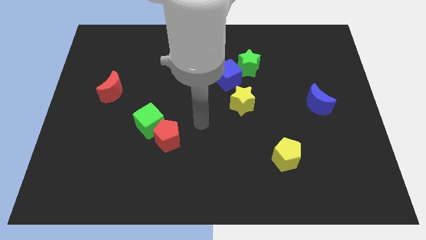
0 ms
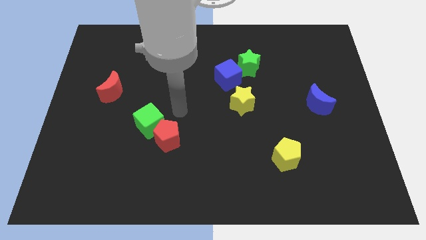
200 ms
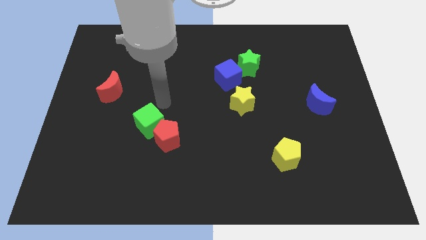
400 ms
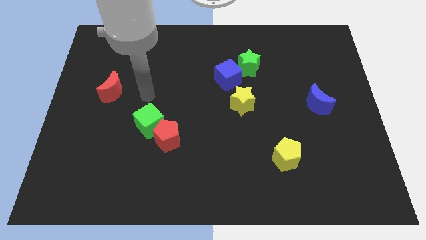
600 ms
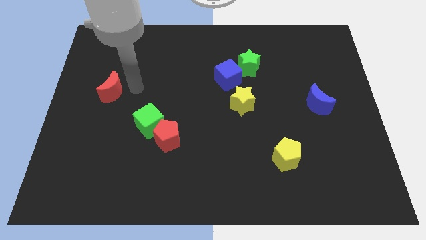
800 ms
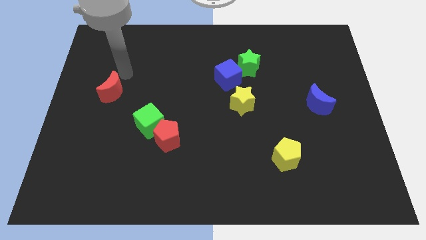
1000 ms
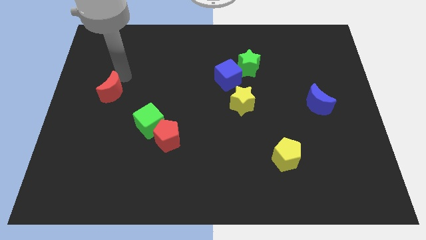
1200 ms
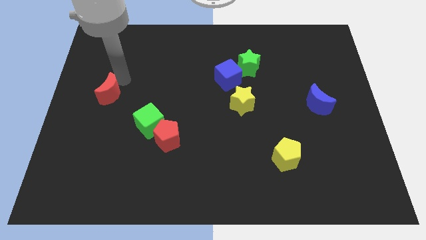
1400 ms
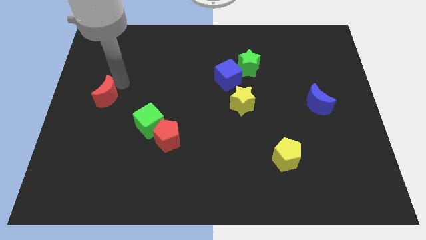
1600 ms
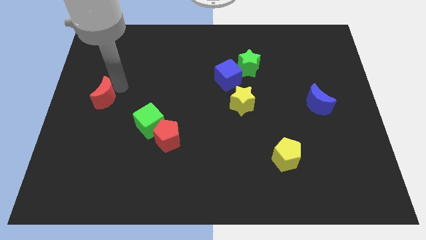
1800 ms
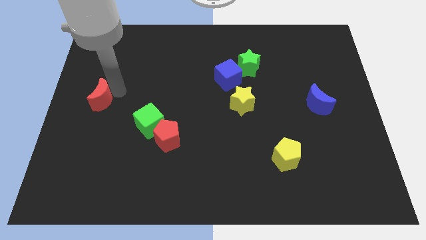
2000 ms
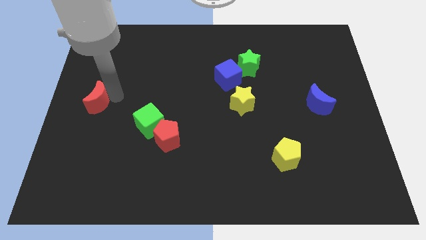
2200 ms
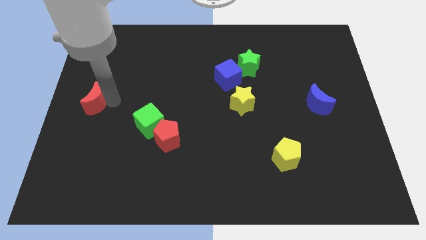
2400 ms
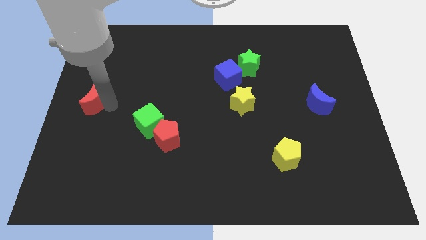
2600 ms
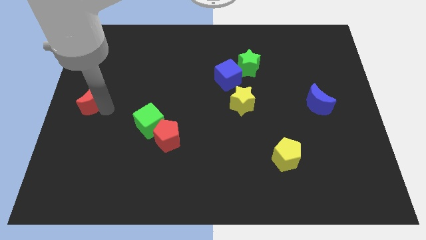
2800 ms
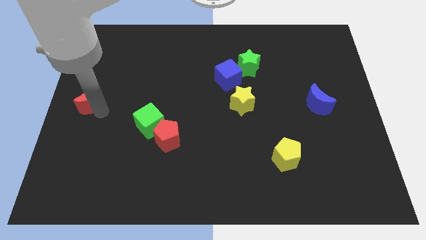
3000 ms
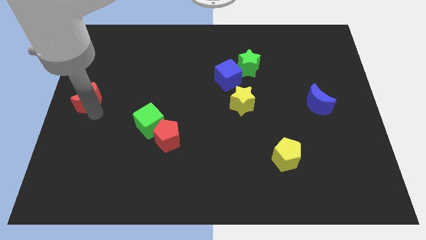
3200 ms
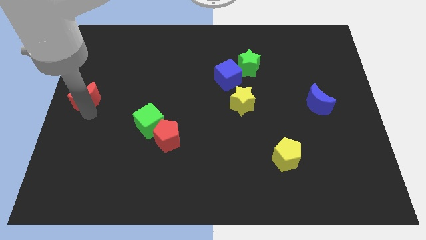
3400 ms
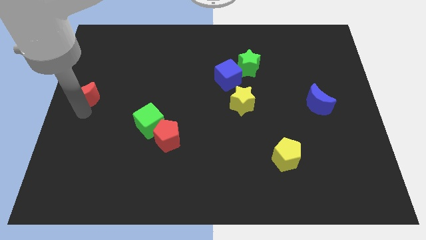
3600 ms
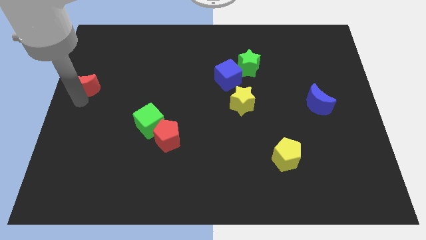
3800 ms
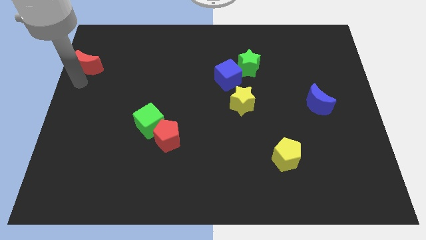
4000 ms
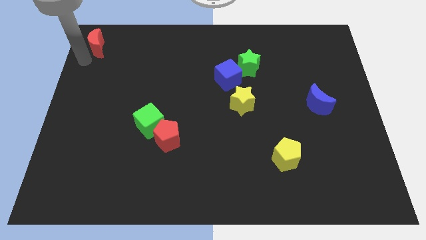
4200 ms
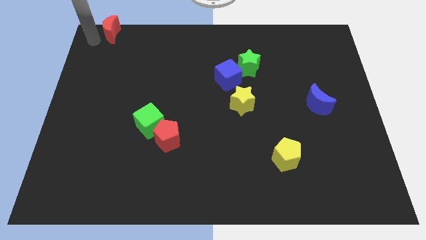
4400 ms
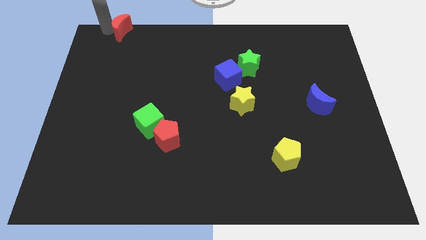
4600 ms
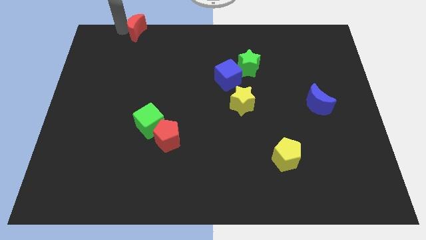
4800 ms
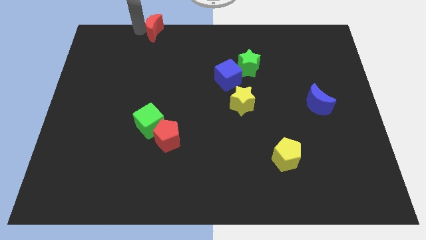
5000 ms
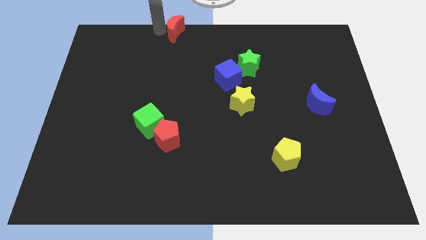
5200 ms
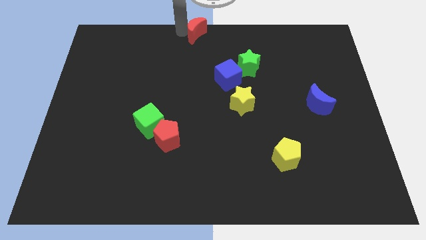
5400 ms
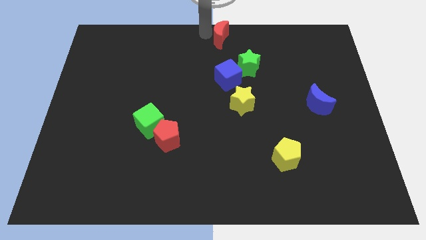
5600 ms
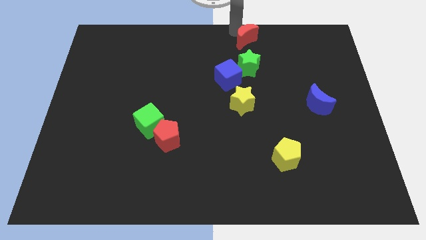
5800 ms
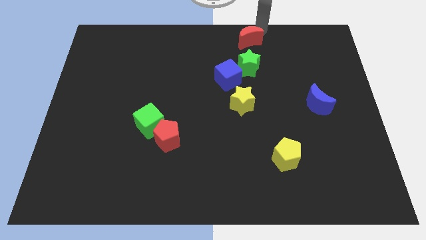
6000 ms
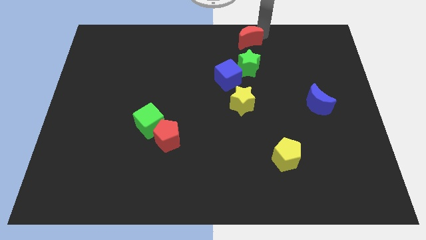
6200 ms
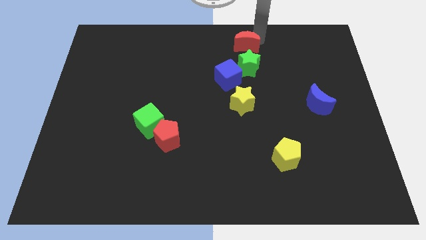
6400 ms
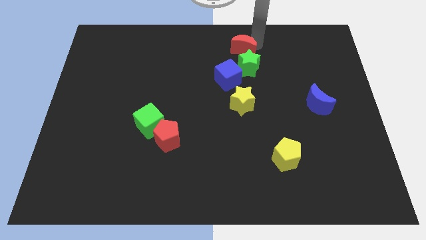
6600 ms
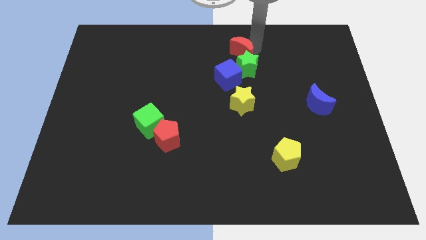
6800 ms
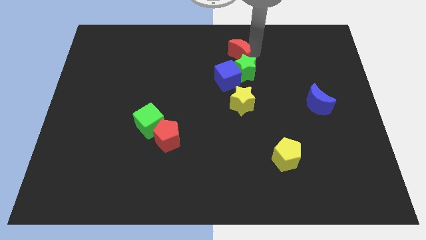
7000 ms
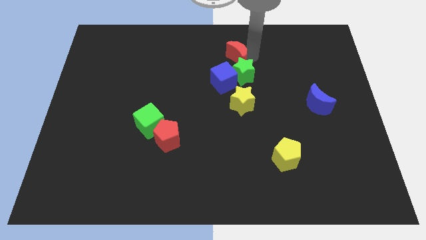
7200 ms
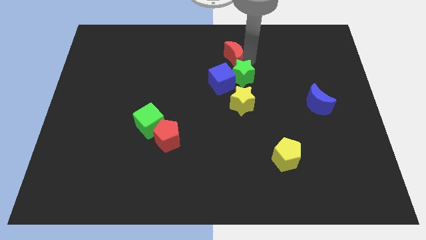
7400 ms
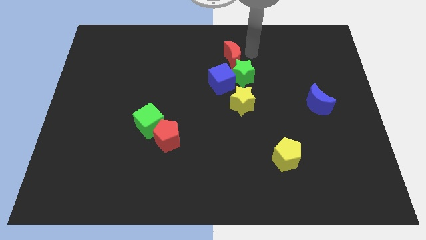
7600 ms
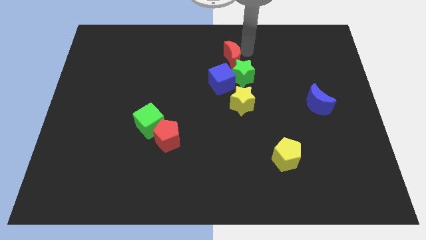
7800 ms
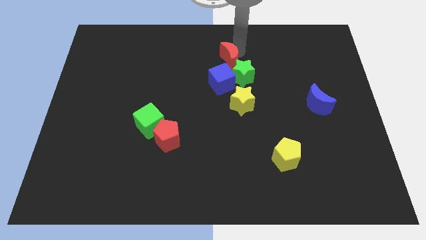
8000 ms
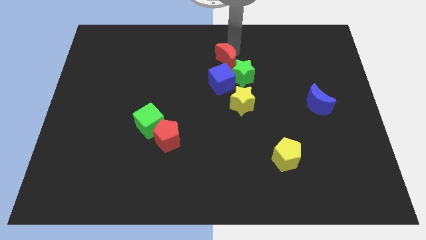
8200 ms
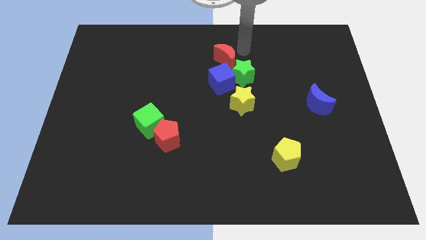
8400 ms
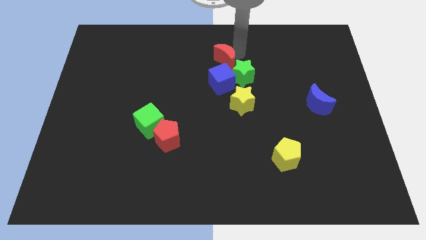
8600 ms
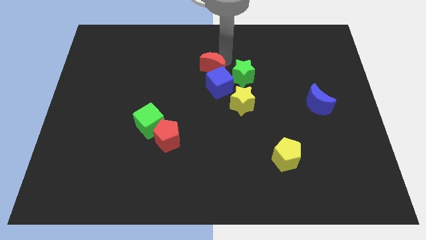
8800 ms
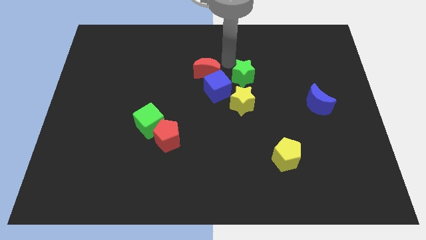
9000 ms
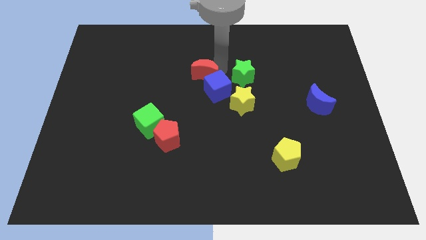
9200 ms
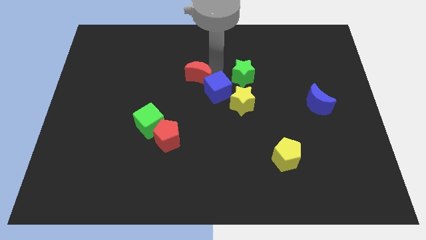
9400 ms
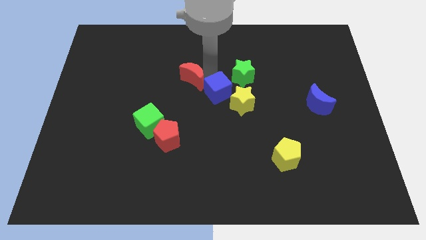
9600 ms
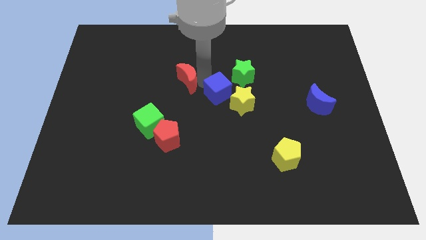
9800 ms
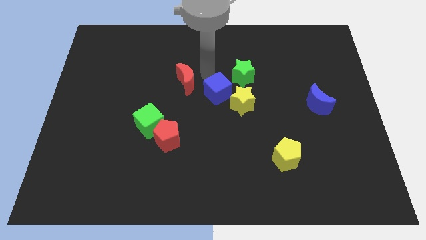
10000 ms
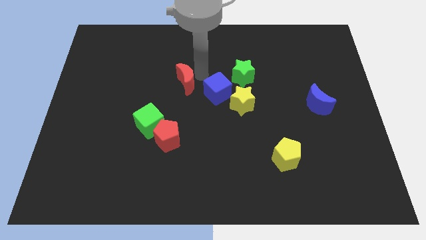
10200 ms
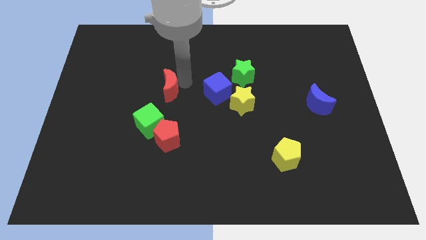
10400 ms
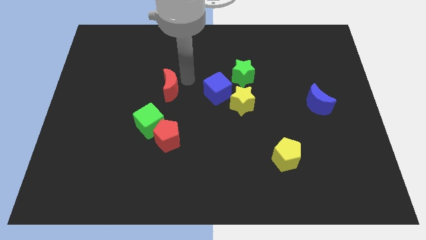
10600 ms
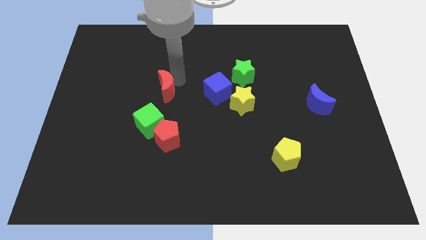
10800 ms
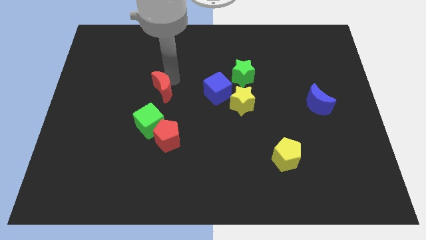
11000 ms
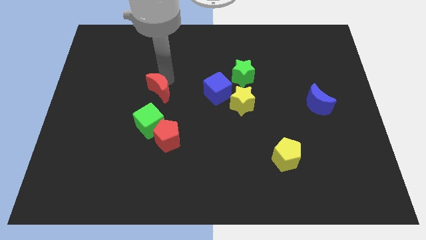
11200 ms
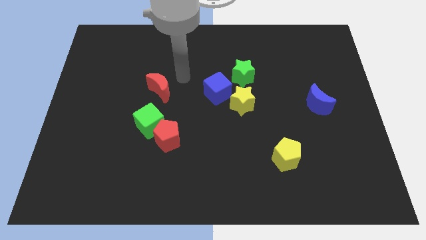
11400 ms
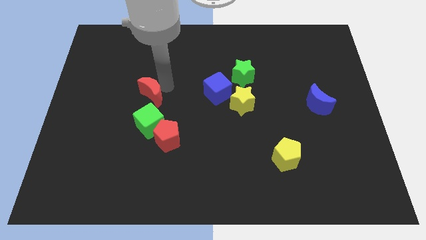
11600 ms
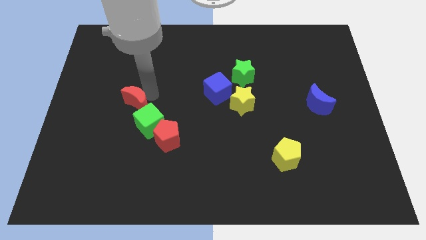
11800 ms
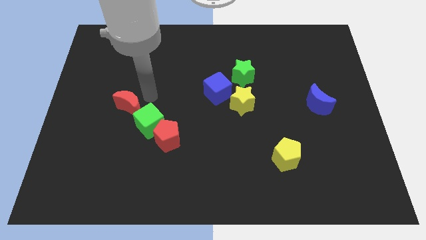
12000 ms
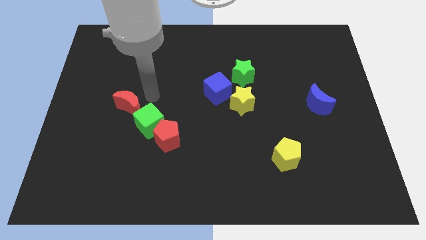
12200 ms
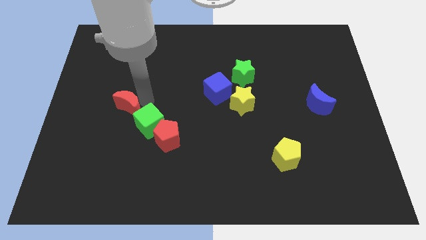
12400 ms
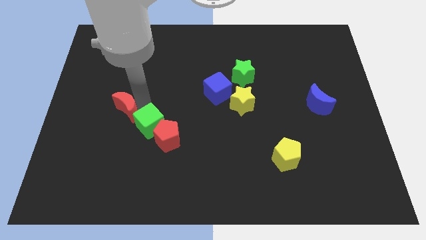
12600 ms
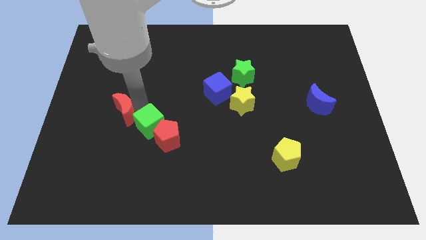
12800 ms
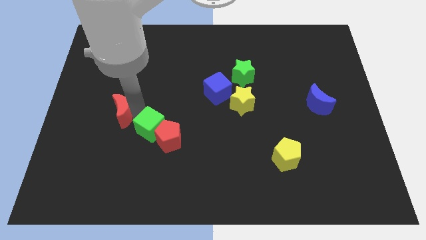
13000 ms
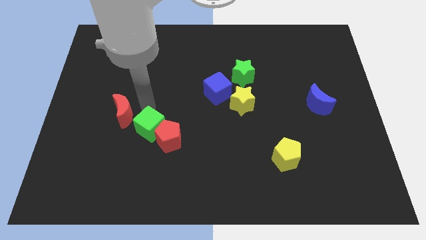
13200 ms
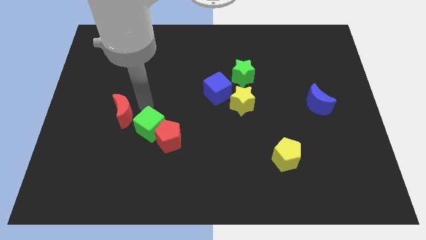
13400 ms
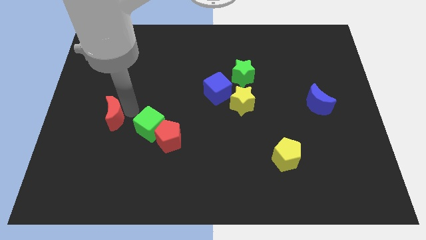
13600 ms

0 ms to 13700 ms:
slightly push the red moon downwards

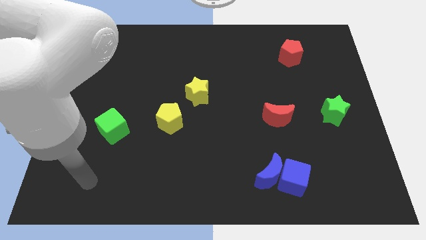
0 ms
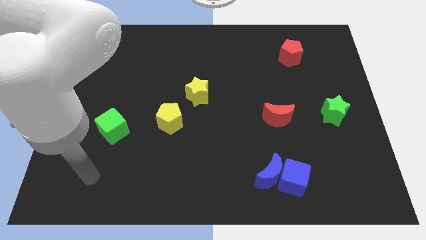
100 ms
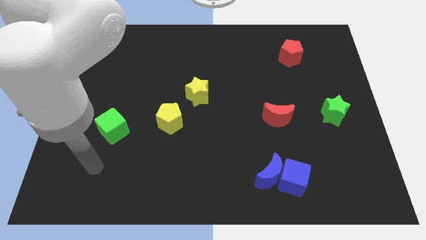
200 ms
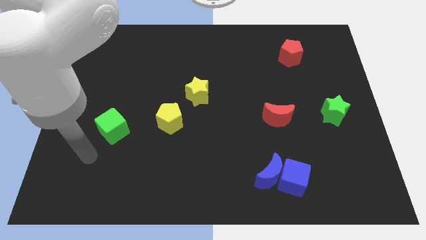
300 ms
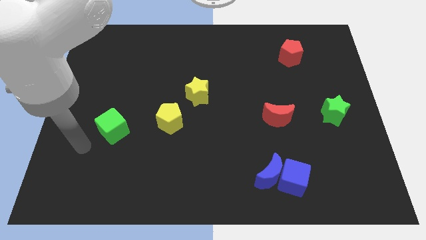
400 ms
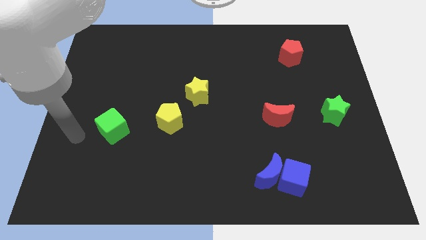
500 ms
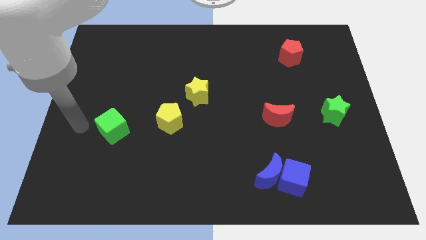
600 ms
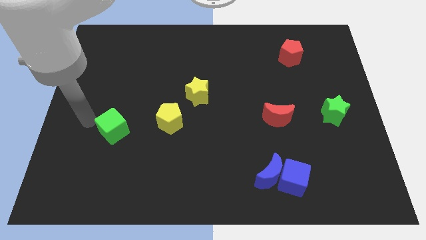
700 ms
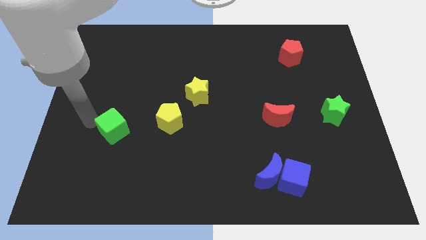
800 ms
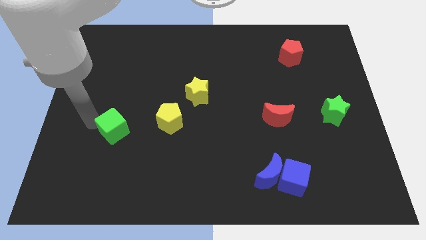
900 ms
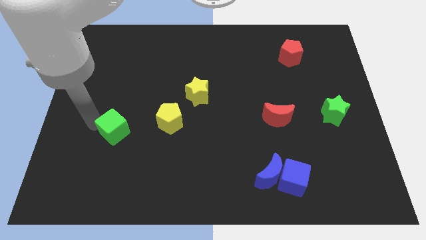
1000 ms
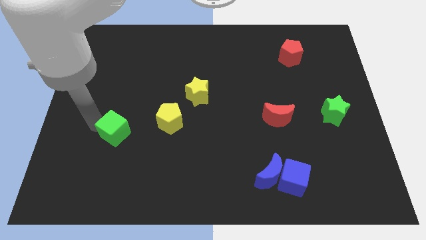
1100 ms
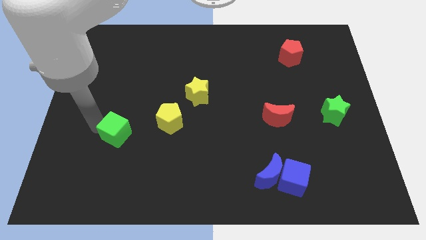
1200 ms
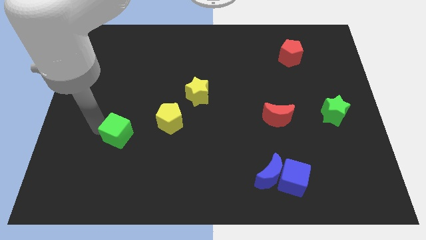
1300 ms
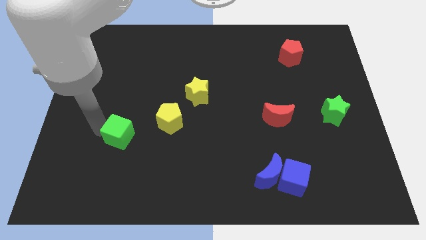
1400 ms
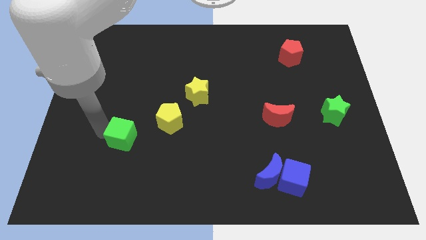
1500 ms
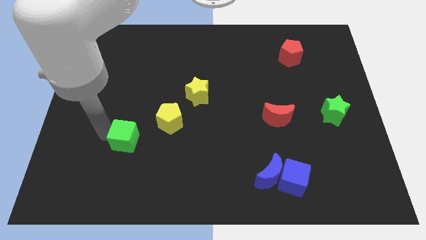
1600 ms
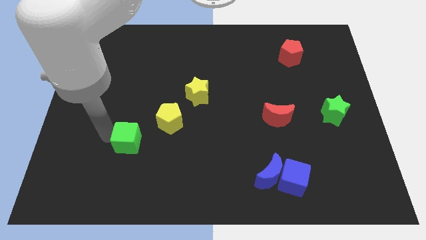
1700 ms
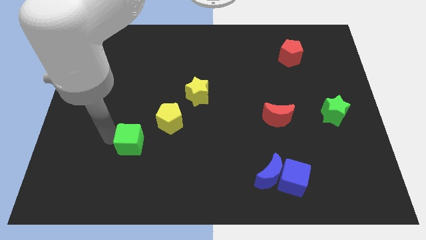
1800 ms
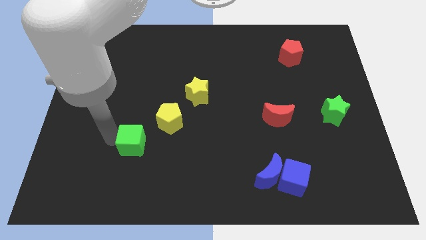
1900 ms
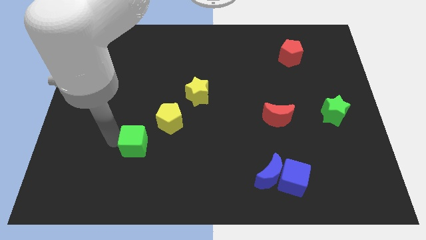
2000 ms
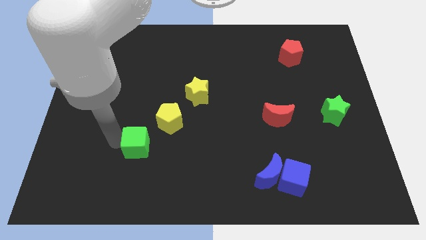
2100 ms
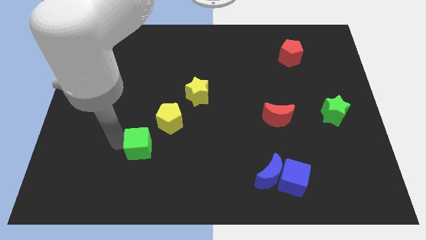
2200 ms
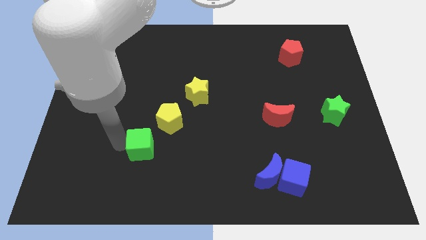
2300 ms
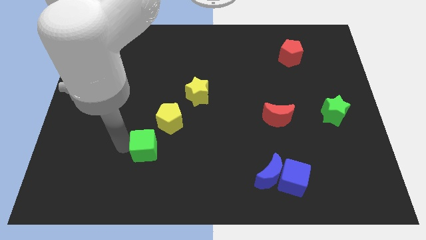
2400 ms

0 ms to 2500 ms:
slightly slide the green cube right
